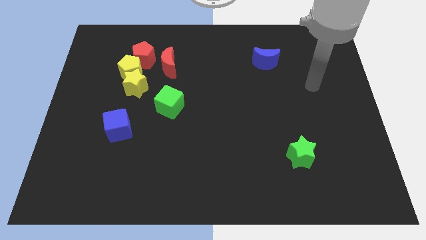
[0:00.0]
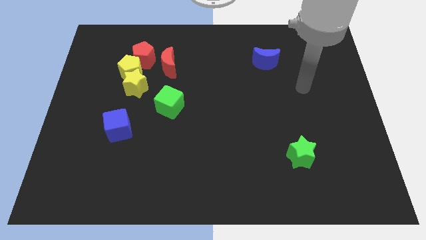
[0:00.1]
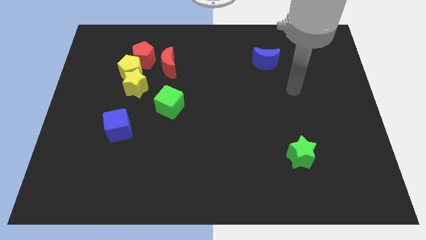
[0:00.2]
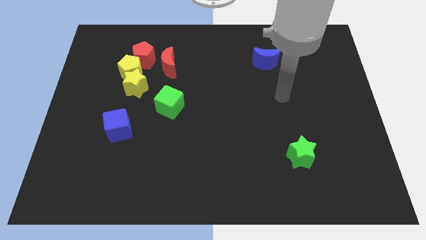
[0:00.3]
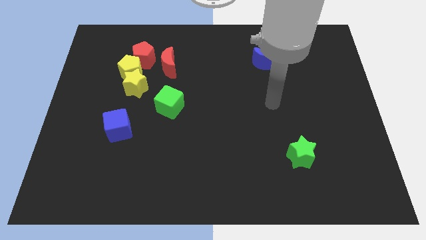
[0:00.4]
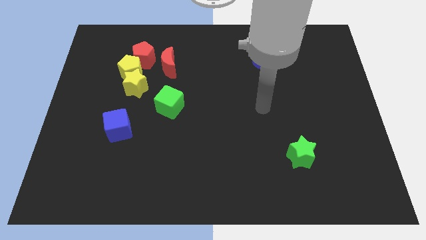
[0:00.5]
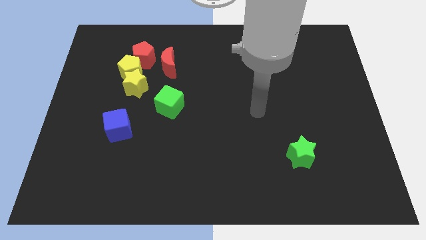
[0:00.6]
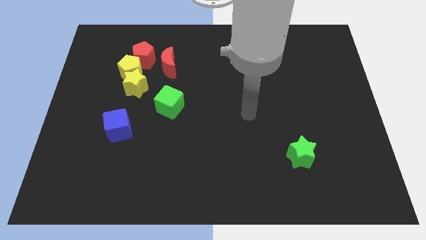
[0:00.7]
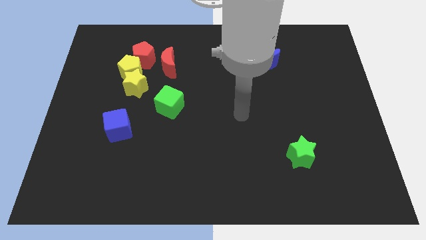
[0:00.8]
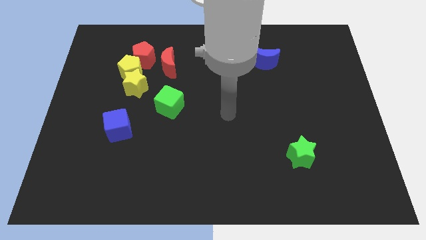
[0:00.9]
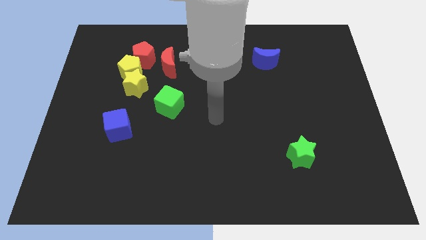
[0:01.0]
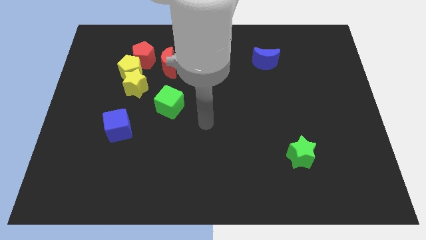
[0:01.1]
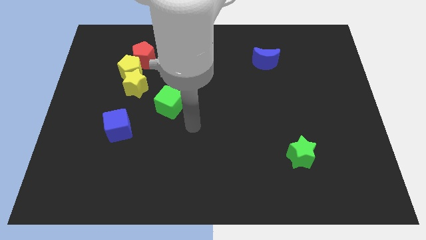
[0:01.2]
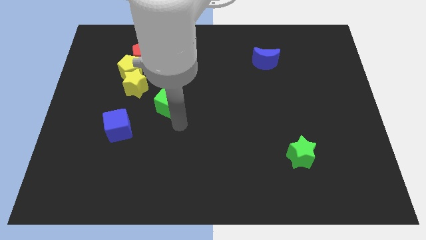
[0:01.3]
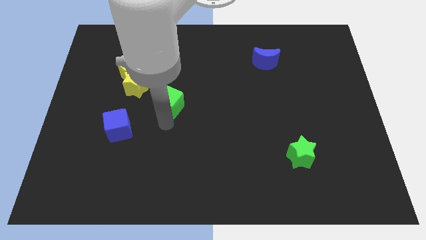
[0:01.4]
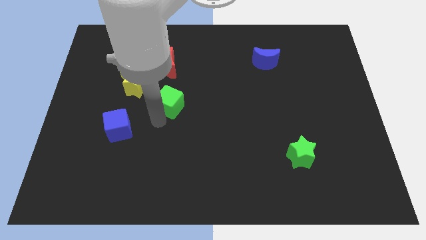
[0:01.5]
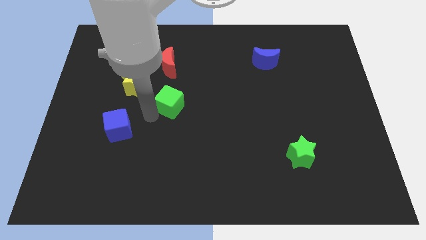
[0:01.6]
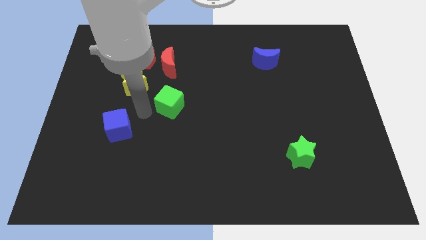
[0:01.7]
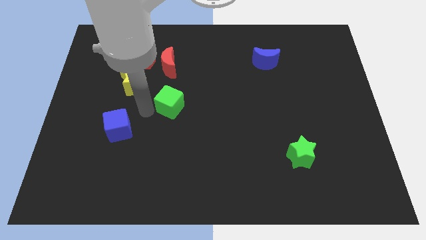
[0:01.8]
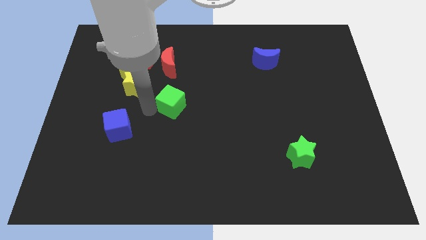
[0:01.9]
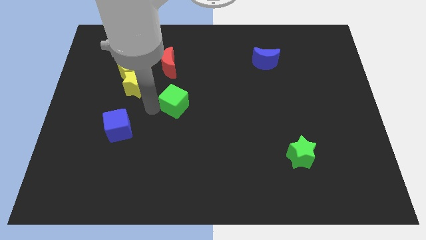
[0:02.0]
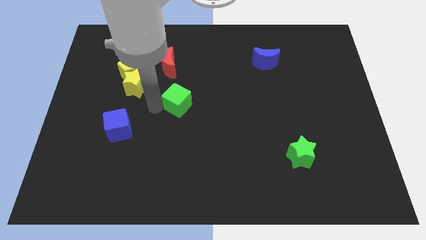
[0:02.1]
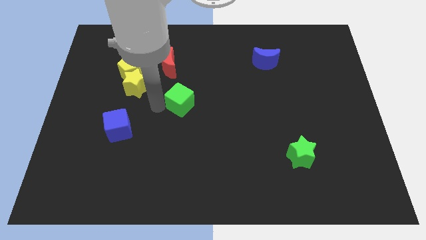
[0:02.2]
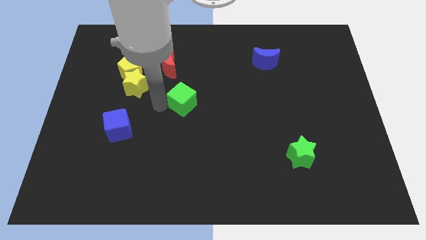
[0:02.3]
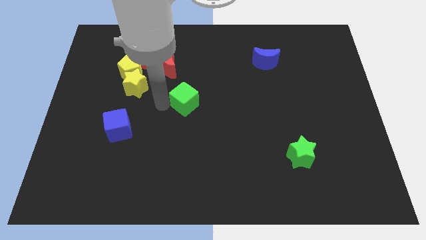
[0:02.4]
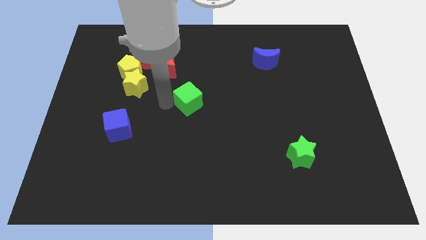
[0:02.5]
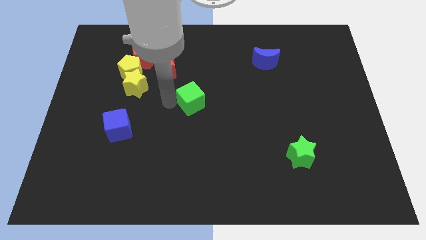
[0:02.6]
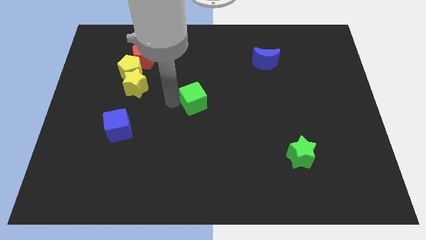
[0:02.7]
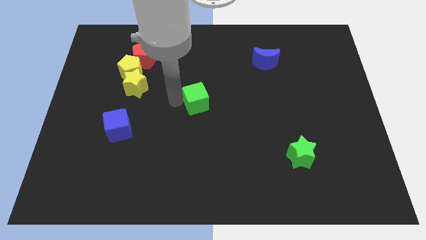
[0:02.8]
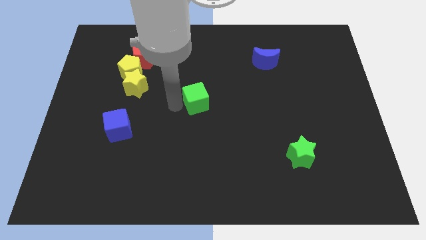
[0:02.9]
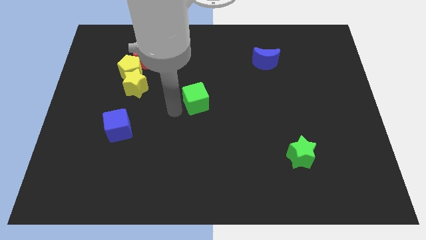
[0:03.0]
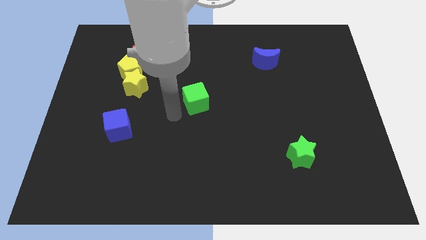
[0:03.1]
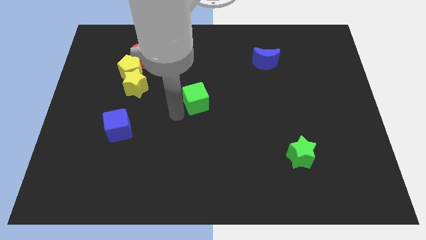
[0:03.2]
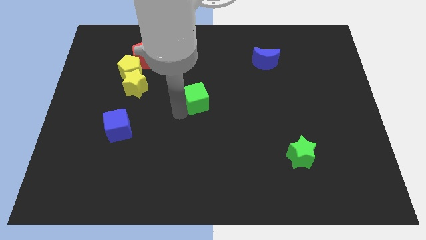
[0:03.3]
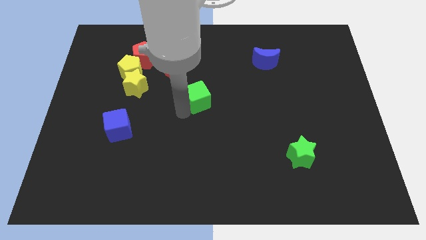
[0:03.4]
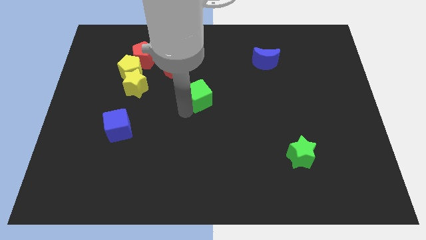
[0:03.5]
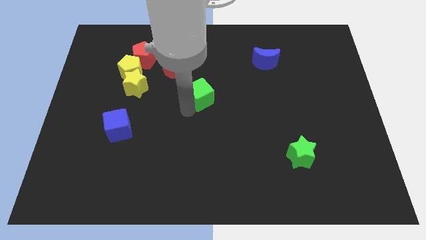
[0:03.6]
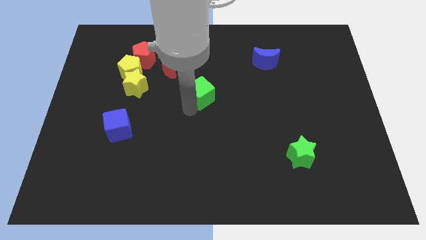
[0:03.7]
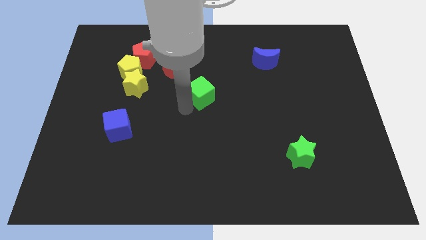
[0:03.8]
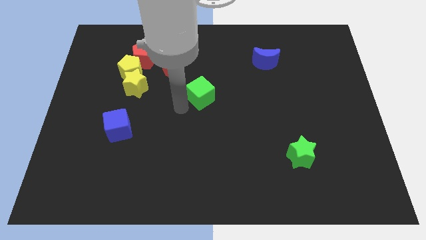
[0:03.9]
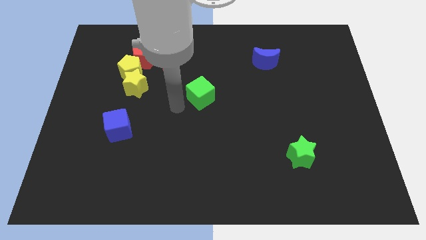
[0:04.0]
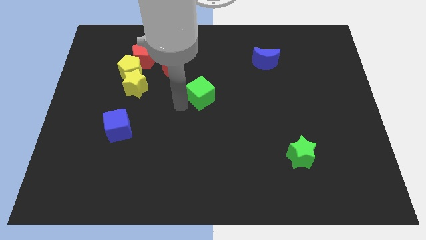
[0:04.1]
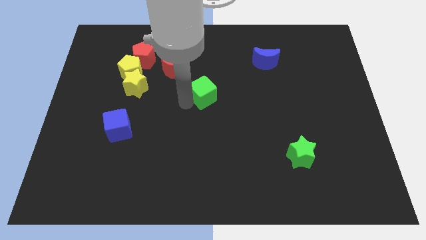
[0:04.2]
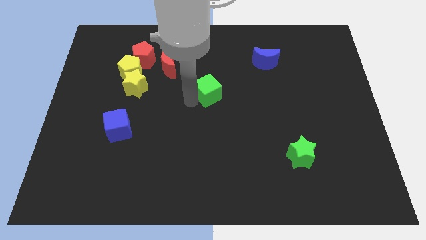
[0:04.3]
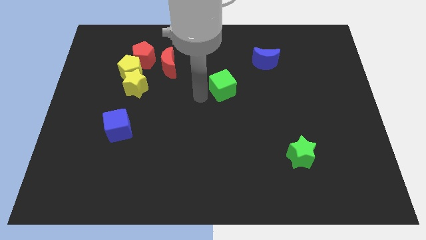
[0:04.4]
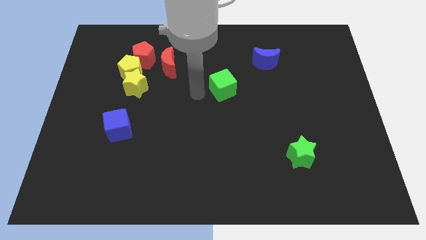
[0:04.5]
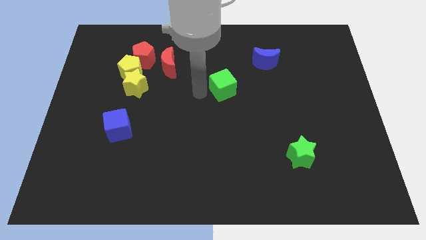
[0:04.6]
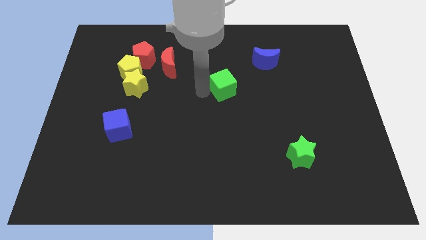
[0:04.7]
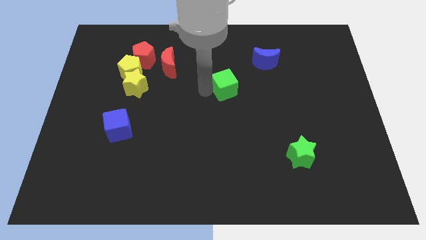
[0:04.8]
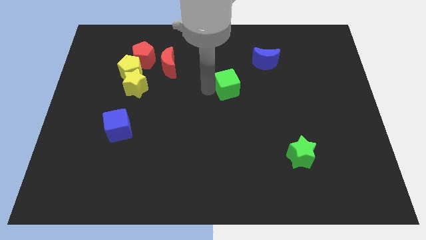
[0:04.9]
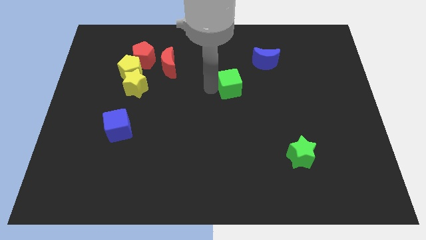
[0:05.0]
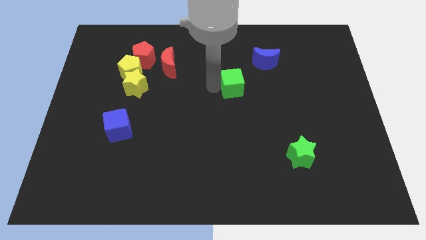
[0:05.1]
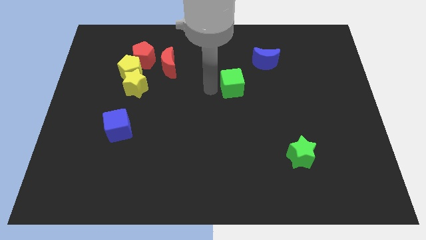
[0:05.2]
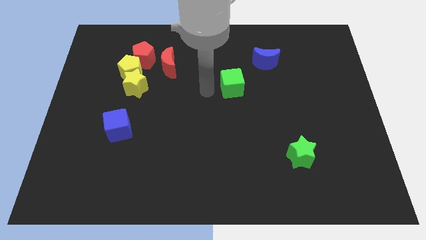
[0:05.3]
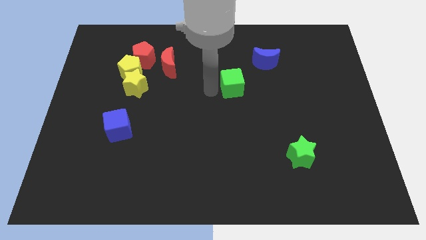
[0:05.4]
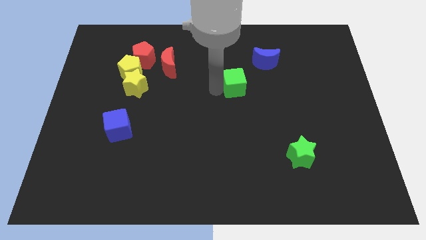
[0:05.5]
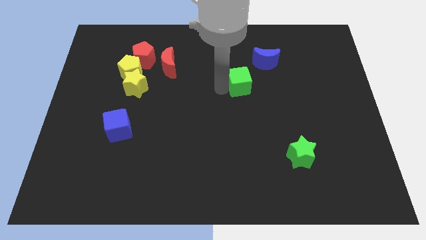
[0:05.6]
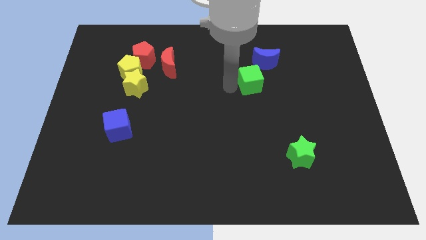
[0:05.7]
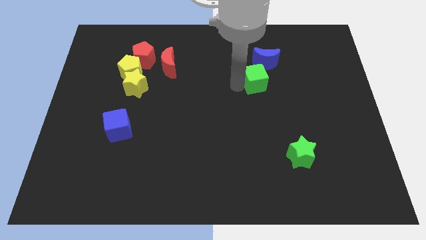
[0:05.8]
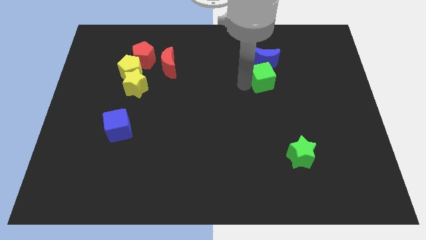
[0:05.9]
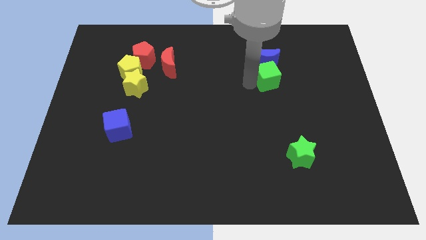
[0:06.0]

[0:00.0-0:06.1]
put the green cube to the bottom right side of the blue moon
